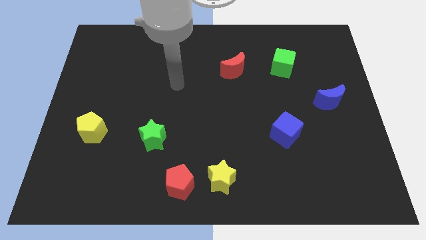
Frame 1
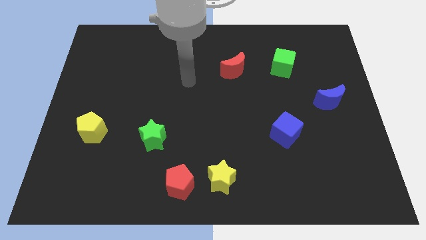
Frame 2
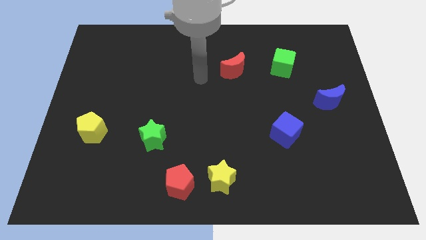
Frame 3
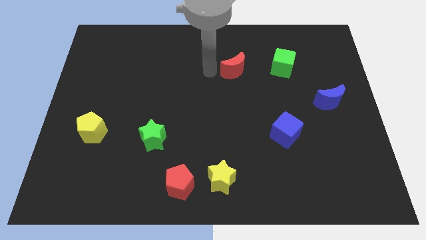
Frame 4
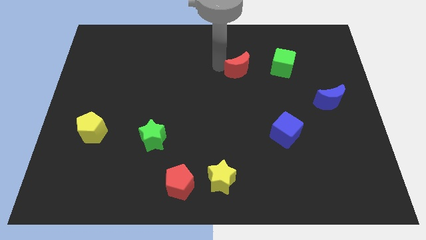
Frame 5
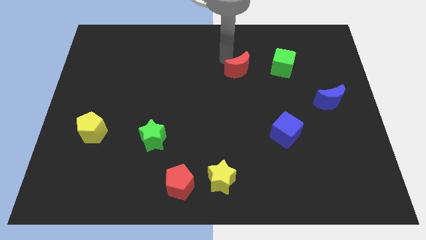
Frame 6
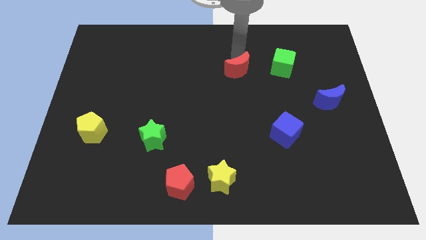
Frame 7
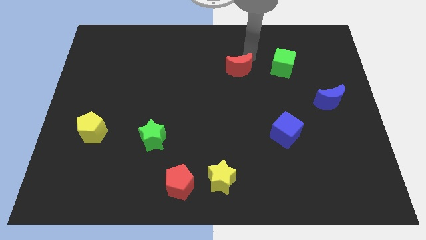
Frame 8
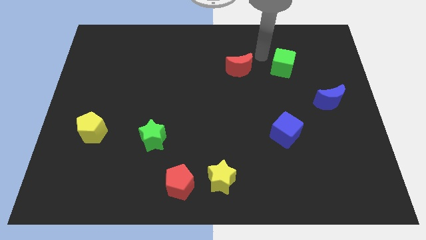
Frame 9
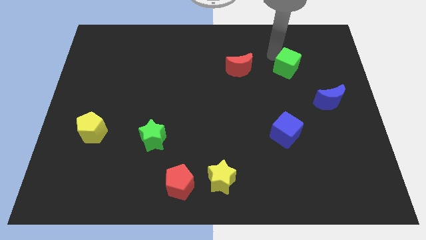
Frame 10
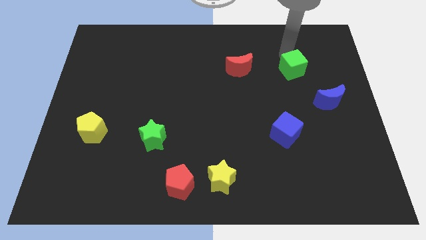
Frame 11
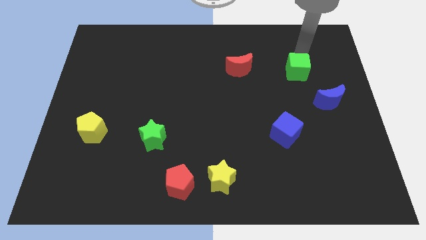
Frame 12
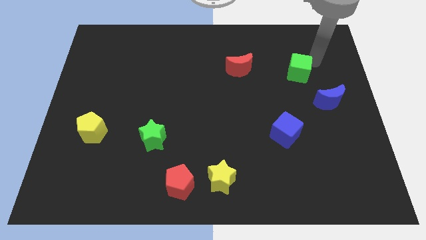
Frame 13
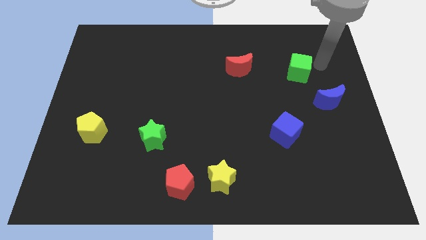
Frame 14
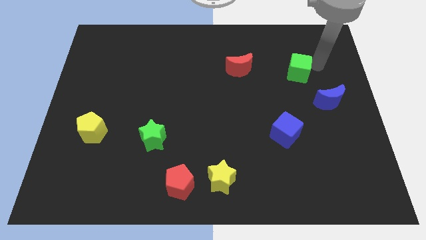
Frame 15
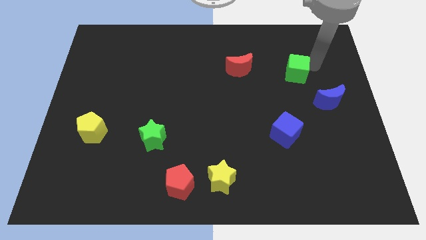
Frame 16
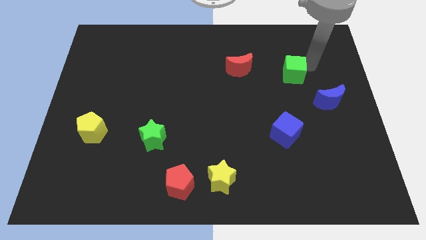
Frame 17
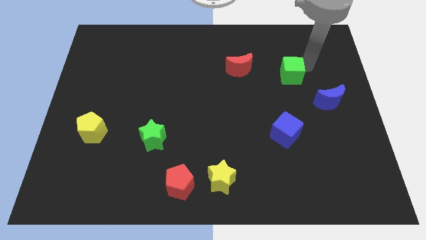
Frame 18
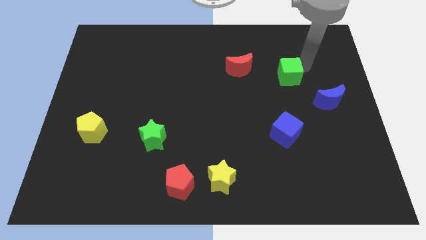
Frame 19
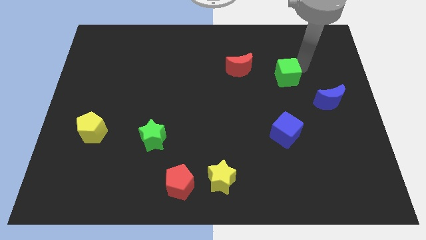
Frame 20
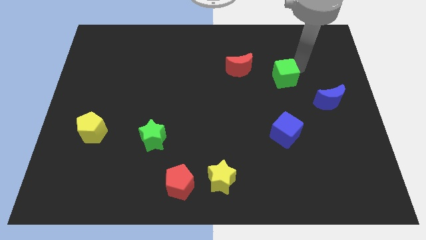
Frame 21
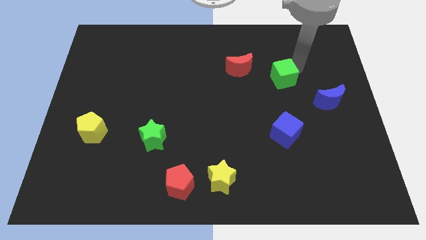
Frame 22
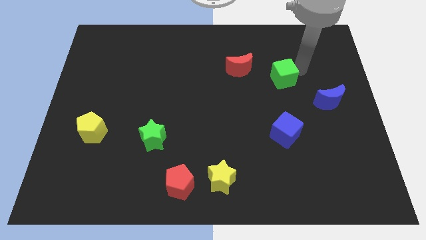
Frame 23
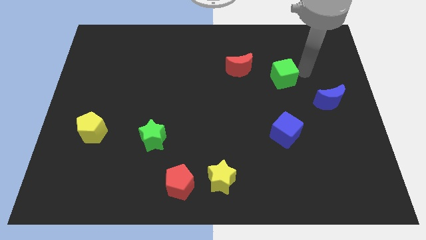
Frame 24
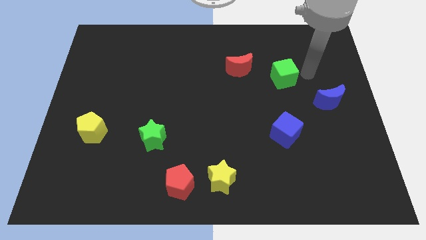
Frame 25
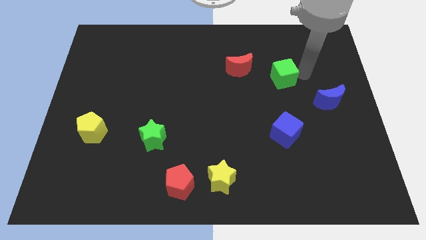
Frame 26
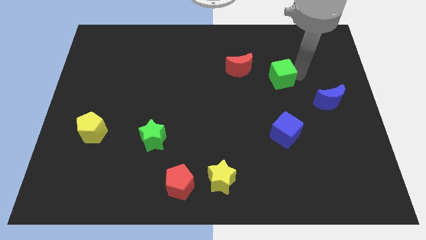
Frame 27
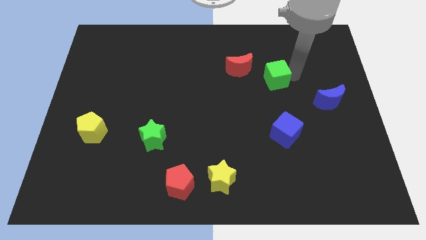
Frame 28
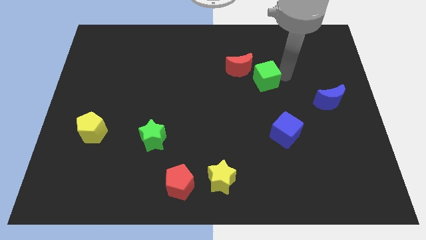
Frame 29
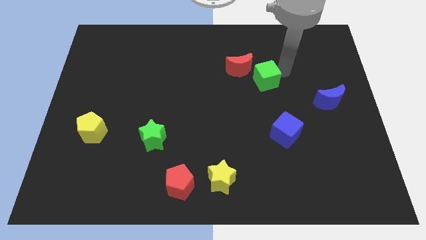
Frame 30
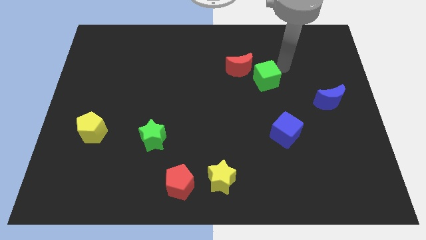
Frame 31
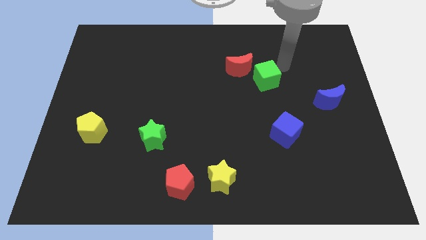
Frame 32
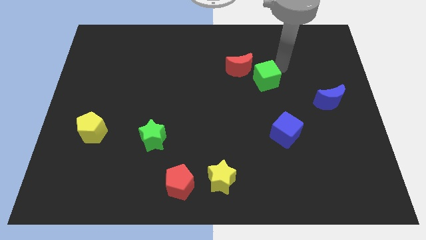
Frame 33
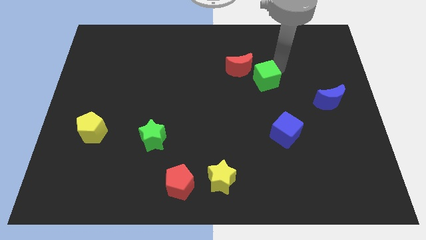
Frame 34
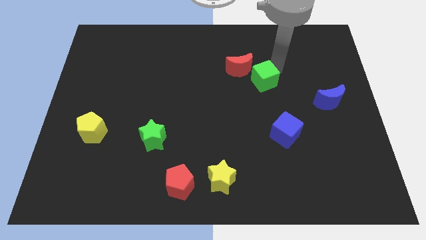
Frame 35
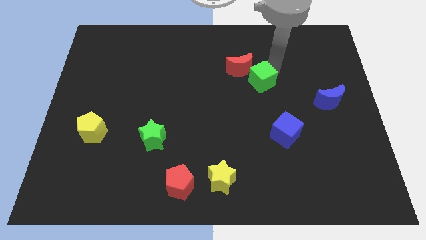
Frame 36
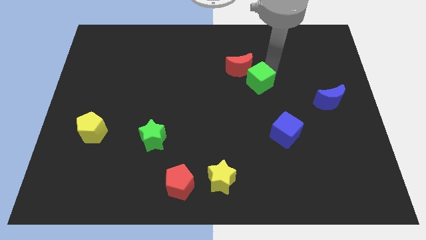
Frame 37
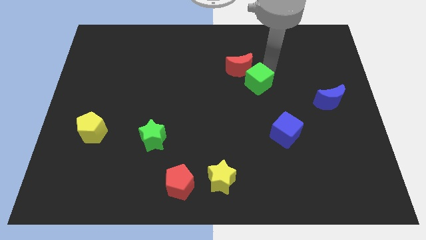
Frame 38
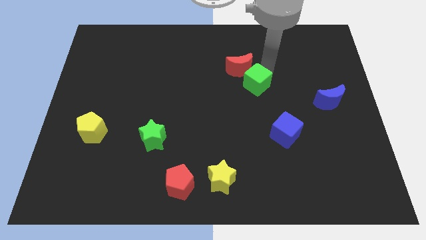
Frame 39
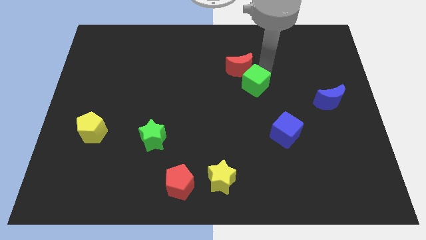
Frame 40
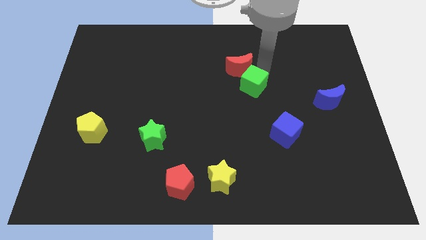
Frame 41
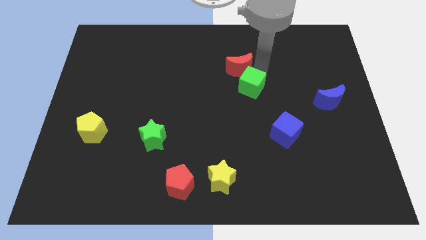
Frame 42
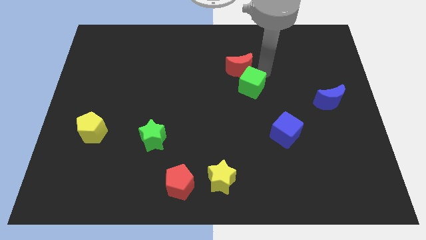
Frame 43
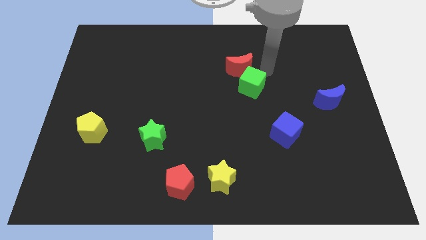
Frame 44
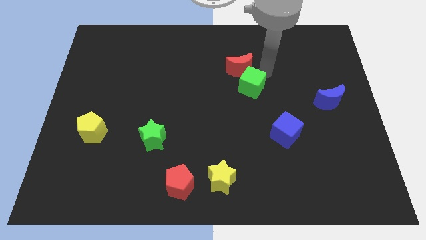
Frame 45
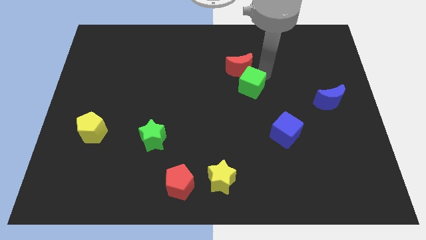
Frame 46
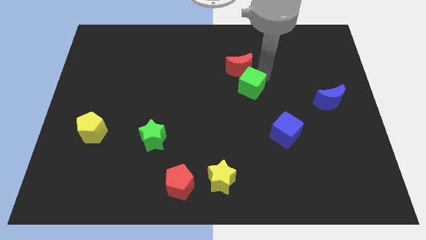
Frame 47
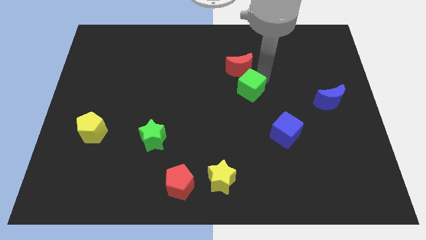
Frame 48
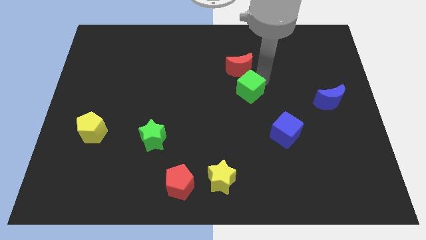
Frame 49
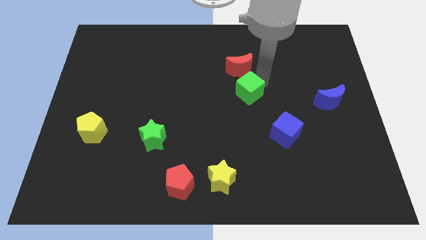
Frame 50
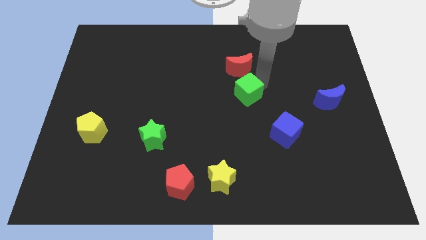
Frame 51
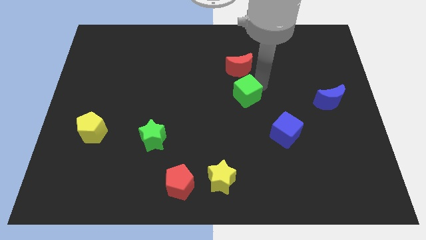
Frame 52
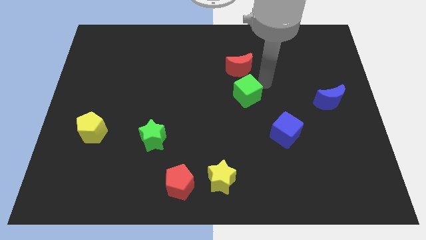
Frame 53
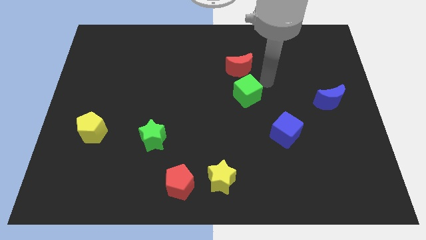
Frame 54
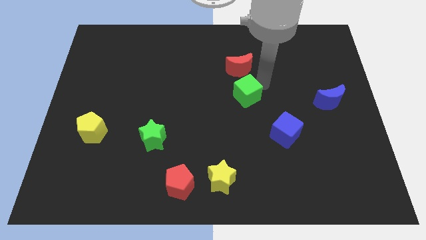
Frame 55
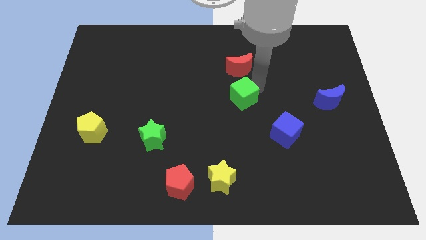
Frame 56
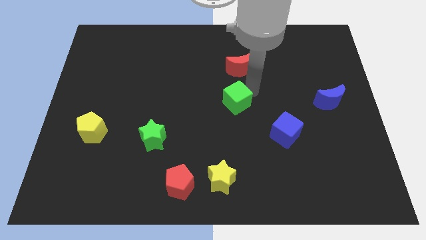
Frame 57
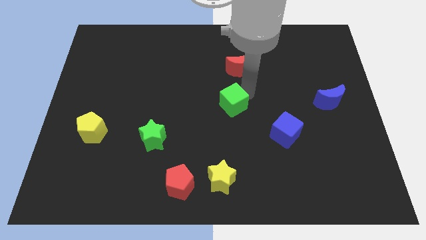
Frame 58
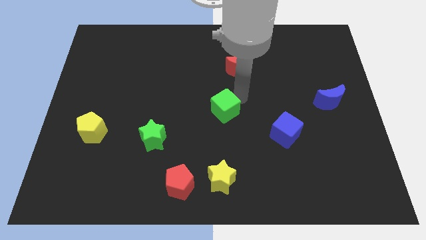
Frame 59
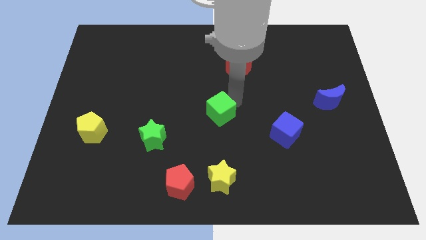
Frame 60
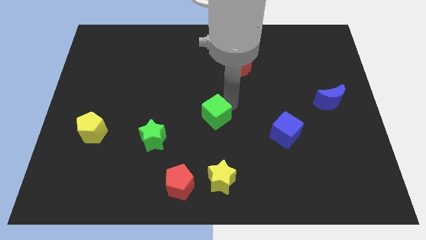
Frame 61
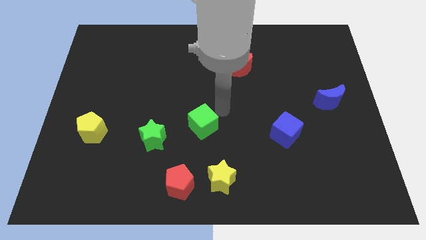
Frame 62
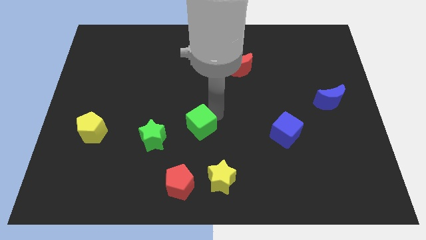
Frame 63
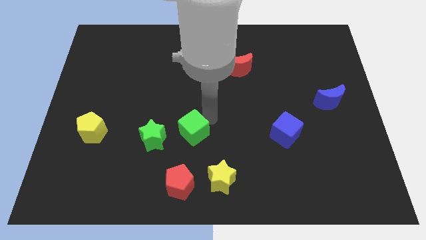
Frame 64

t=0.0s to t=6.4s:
move the green cube to the top of the red pentagon
